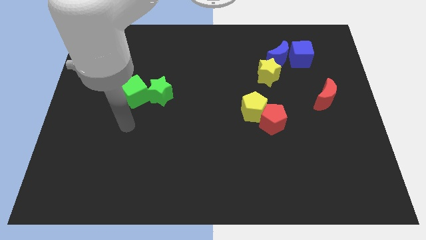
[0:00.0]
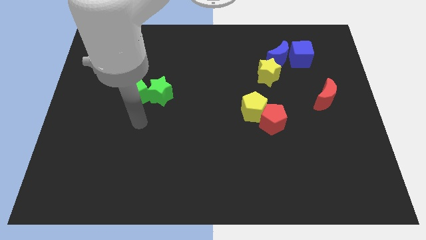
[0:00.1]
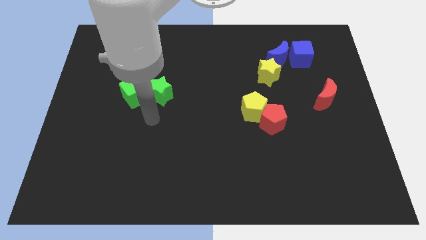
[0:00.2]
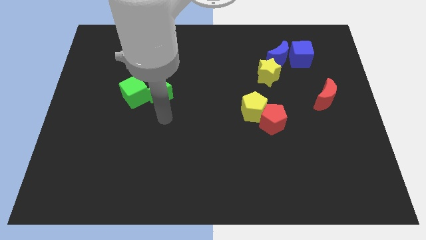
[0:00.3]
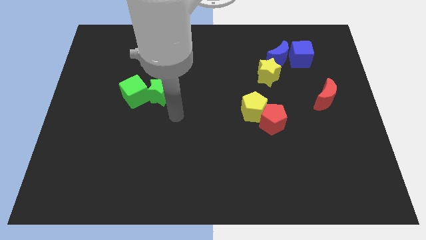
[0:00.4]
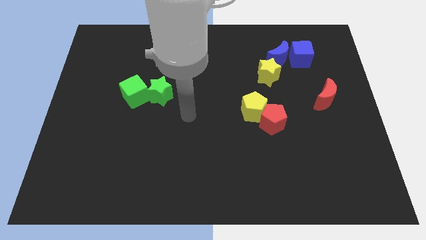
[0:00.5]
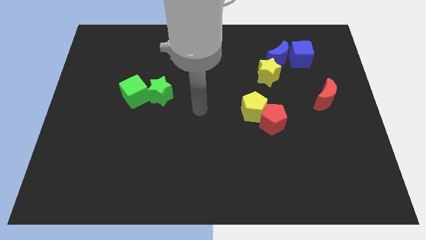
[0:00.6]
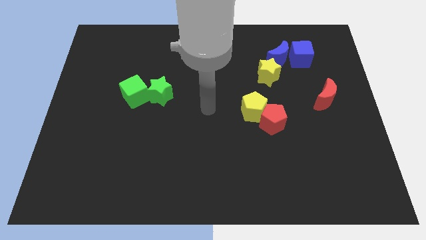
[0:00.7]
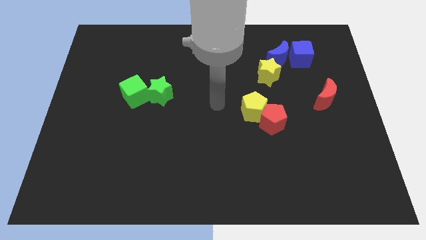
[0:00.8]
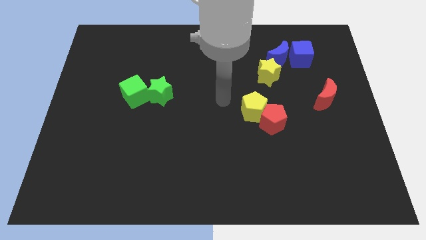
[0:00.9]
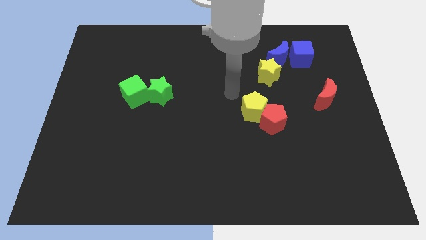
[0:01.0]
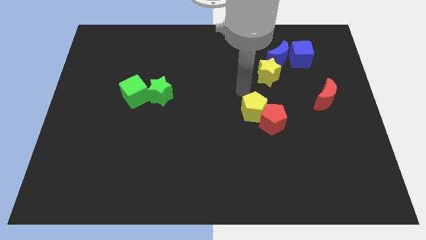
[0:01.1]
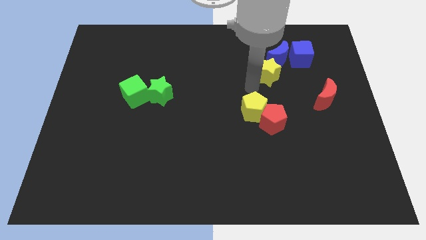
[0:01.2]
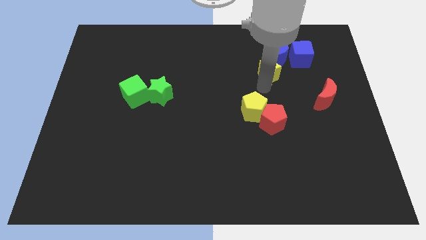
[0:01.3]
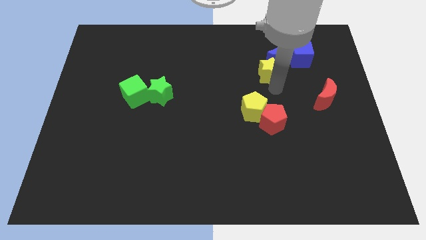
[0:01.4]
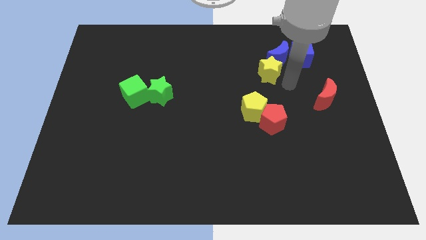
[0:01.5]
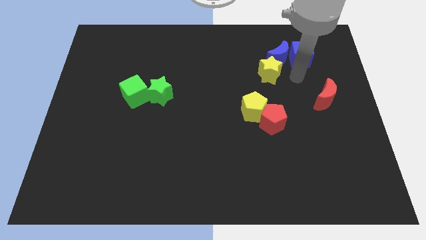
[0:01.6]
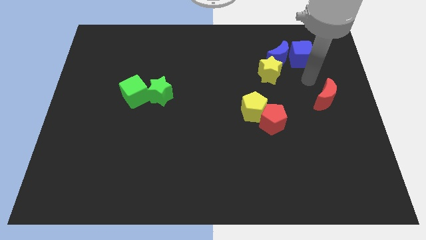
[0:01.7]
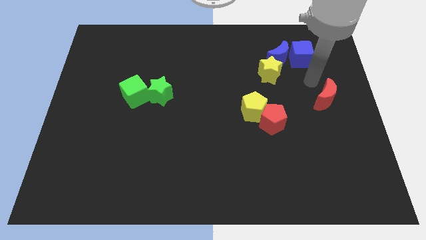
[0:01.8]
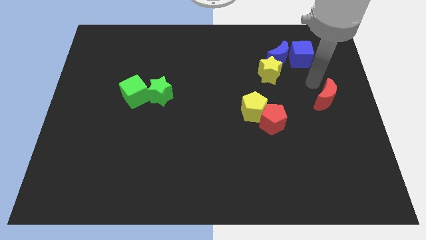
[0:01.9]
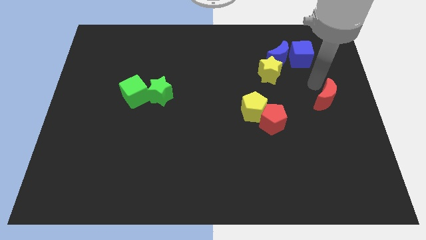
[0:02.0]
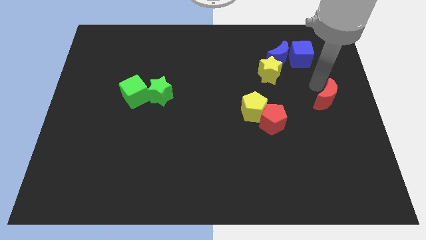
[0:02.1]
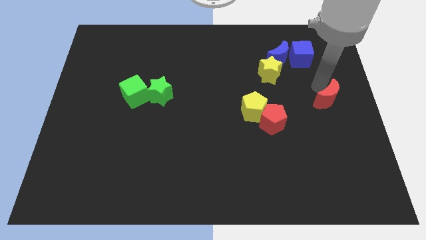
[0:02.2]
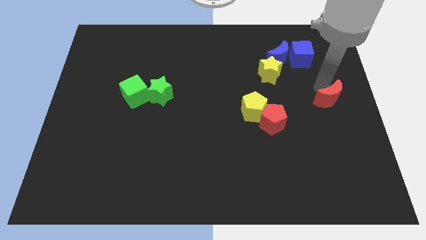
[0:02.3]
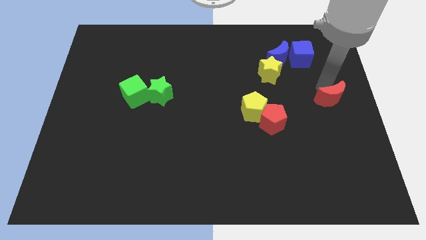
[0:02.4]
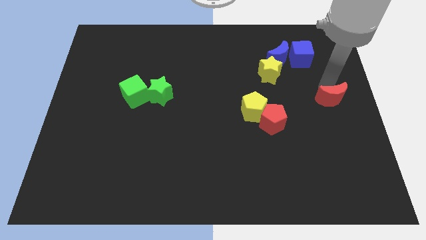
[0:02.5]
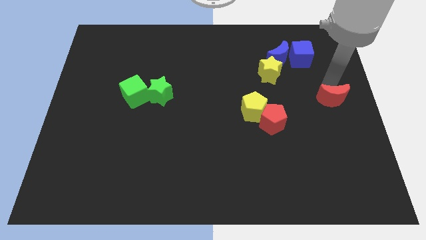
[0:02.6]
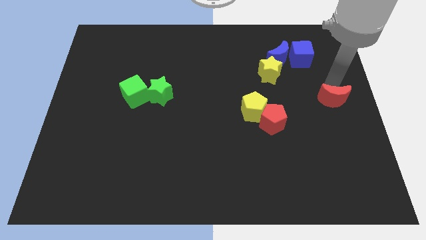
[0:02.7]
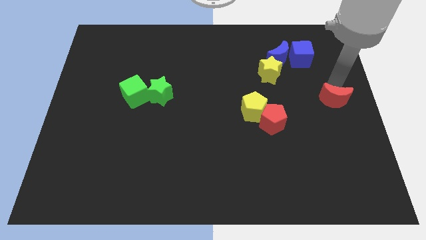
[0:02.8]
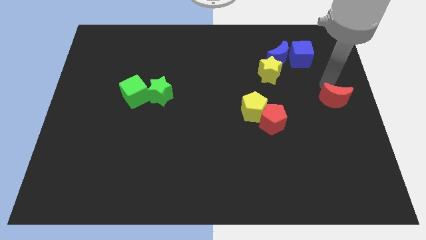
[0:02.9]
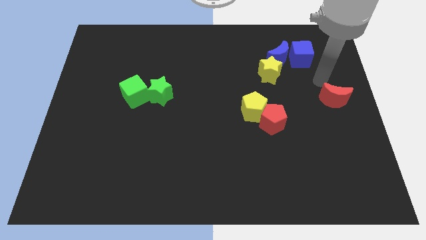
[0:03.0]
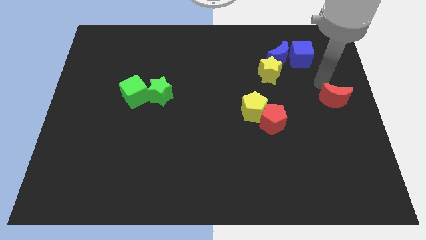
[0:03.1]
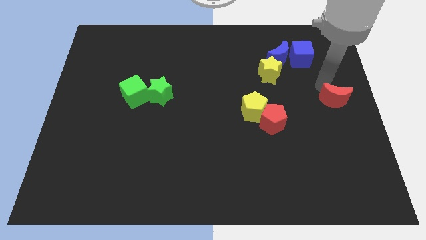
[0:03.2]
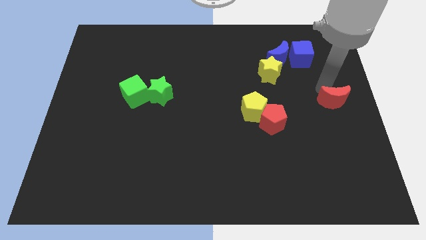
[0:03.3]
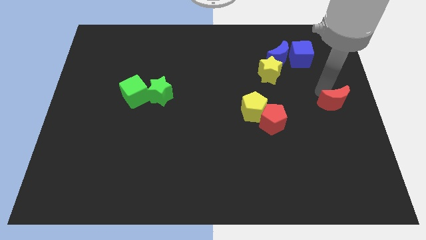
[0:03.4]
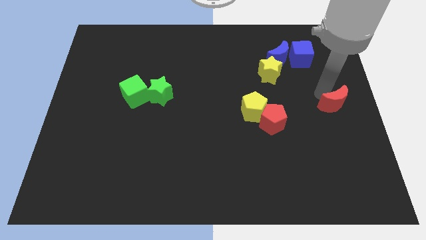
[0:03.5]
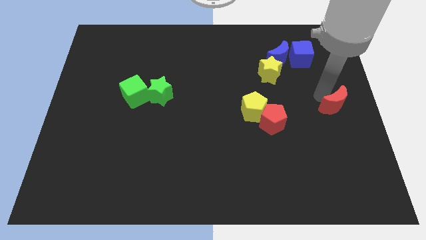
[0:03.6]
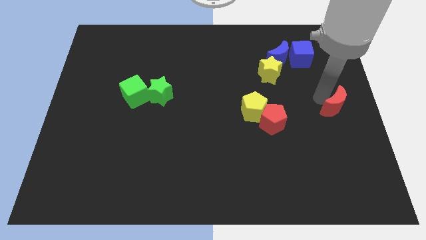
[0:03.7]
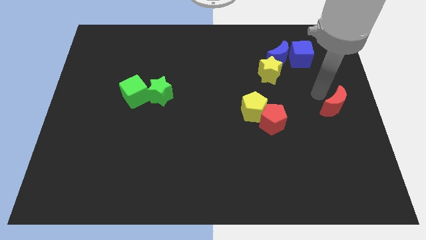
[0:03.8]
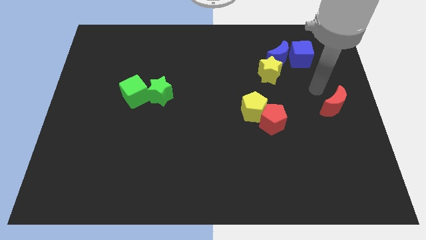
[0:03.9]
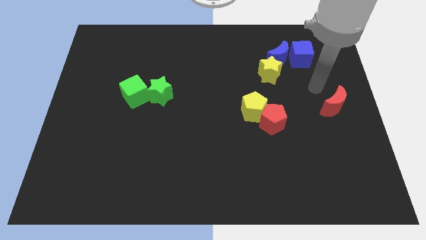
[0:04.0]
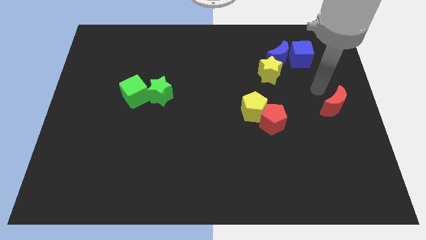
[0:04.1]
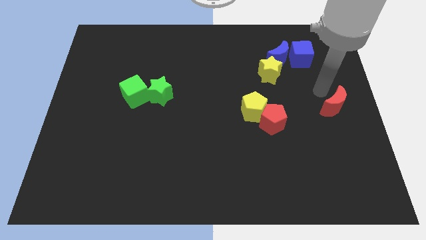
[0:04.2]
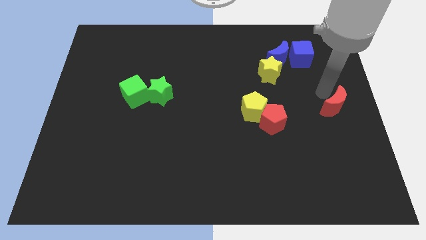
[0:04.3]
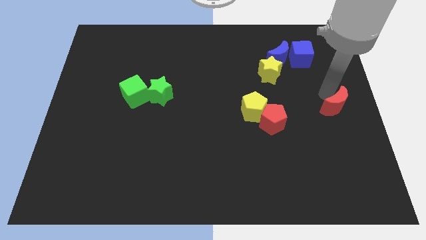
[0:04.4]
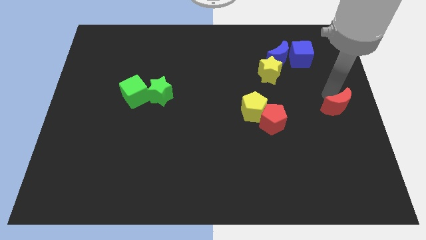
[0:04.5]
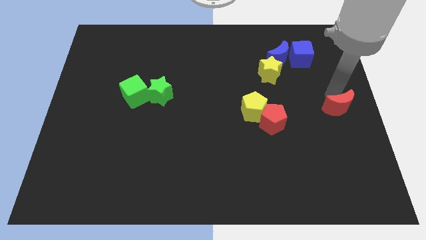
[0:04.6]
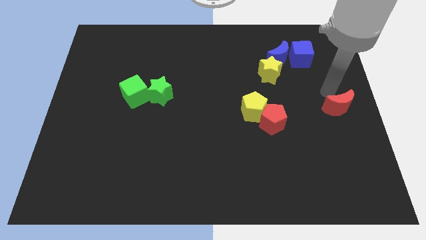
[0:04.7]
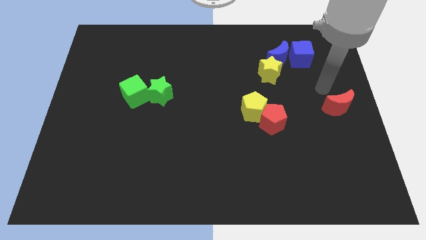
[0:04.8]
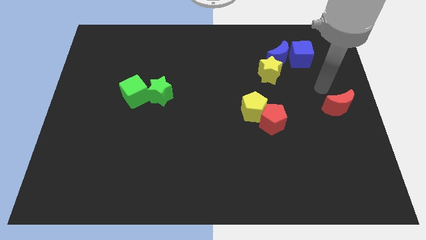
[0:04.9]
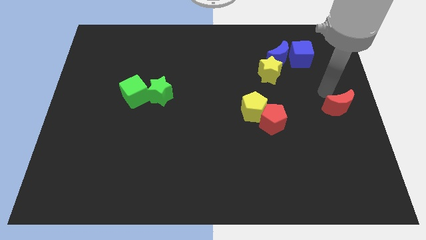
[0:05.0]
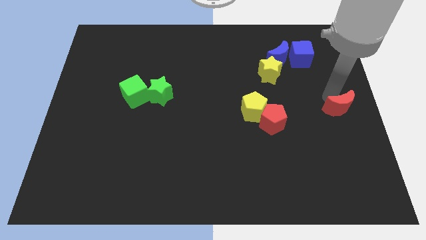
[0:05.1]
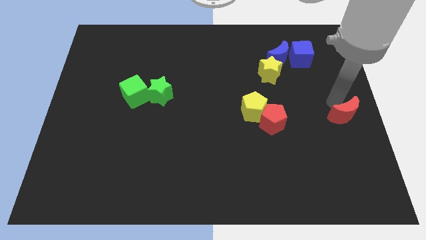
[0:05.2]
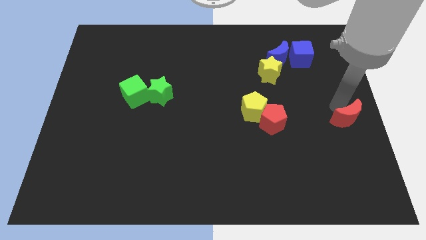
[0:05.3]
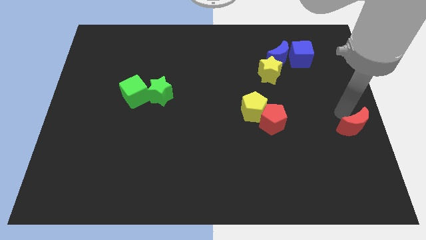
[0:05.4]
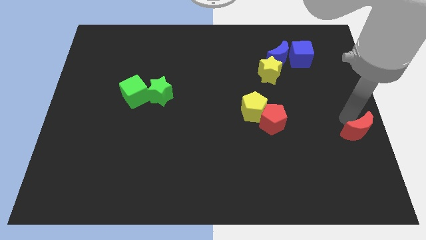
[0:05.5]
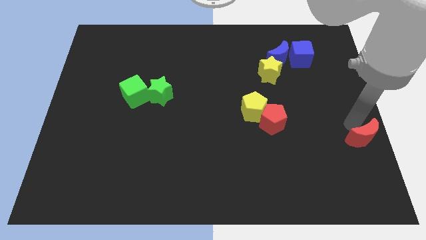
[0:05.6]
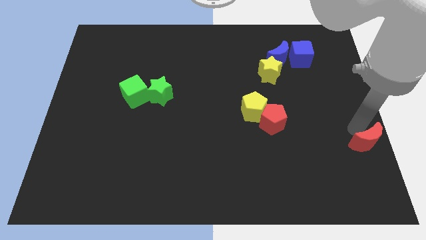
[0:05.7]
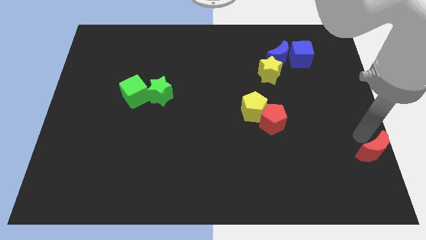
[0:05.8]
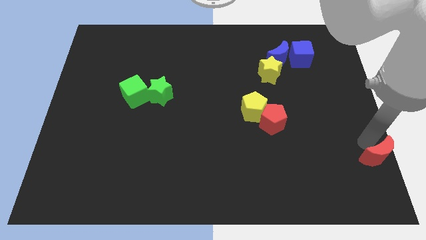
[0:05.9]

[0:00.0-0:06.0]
move the red moon to the bottom right corner

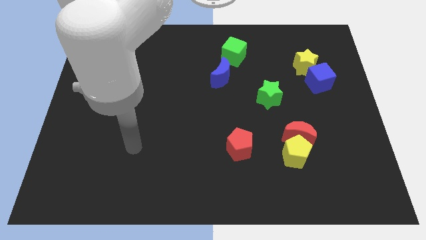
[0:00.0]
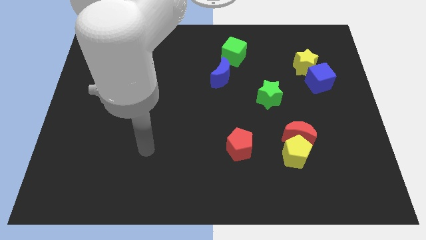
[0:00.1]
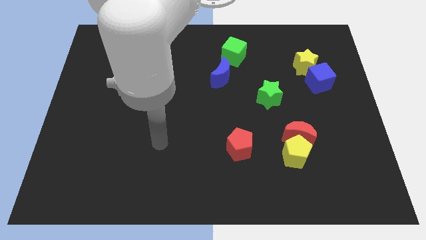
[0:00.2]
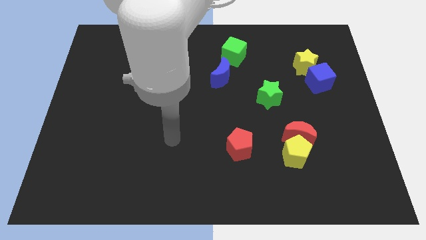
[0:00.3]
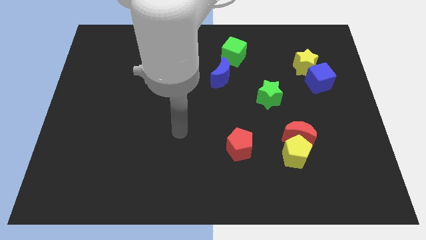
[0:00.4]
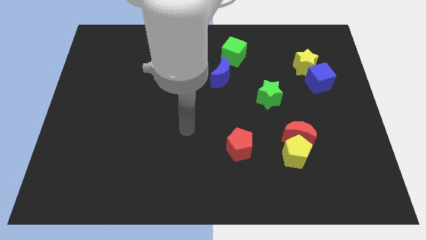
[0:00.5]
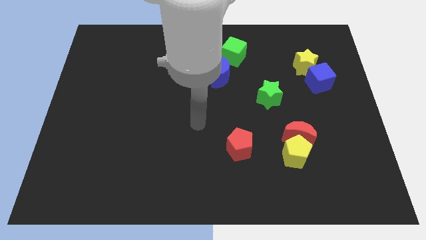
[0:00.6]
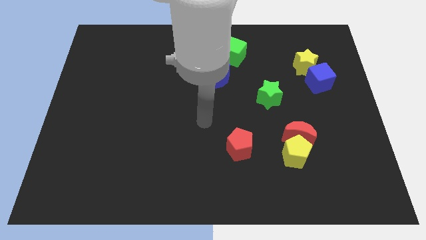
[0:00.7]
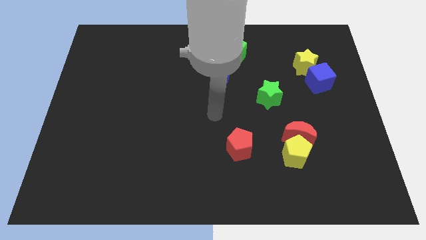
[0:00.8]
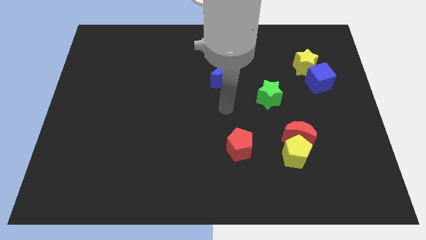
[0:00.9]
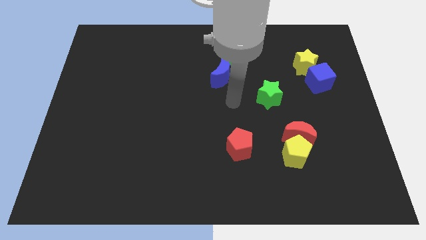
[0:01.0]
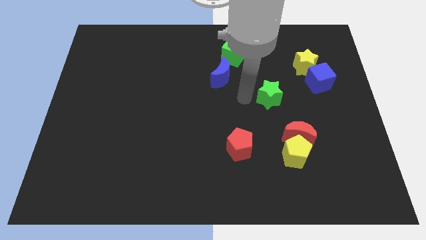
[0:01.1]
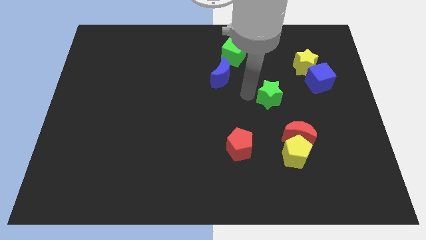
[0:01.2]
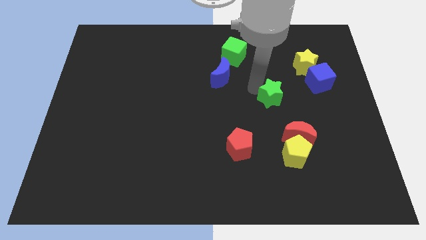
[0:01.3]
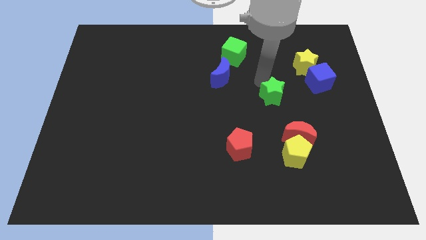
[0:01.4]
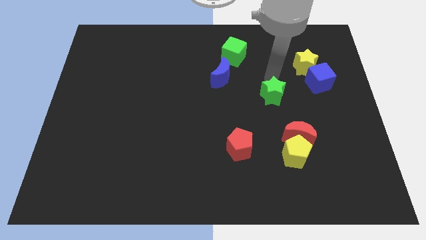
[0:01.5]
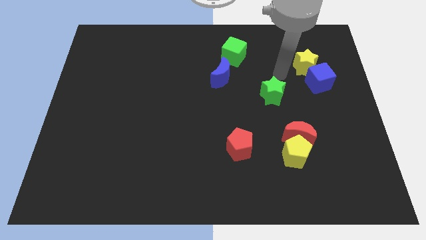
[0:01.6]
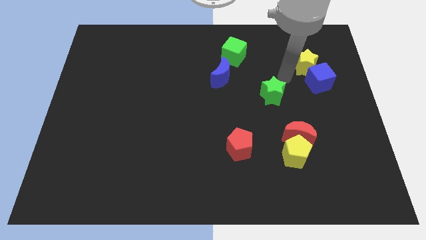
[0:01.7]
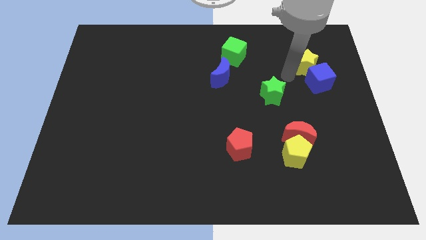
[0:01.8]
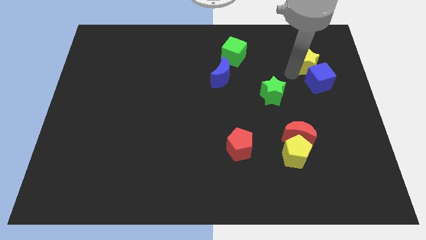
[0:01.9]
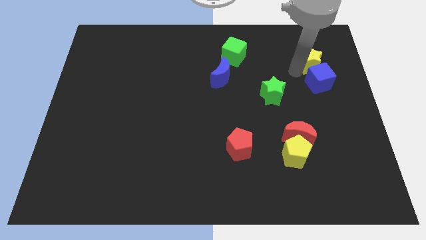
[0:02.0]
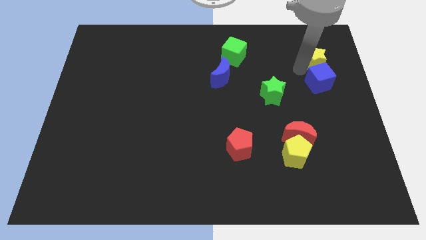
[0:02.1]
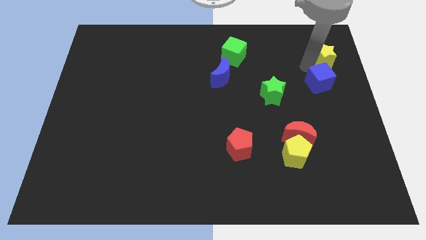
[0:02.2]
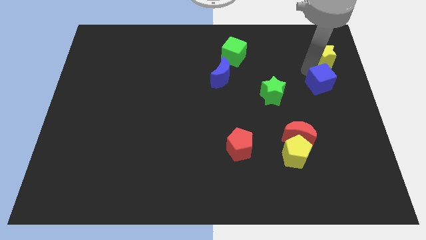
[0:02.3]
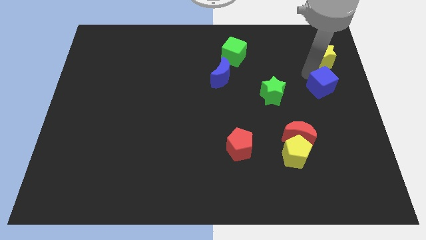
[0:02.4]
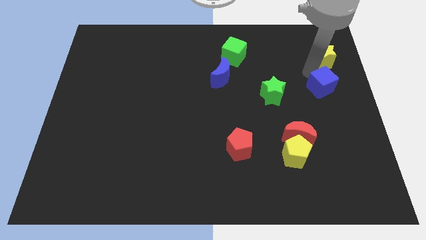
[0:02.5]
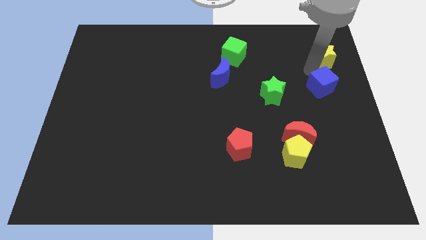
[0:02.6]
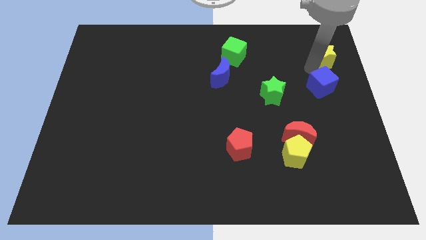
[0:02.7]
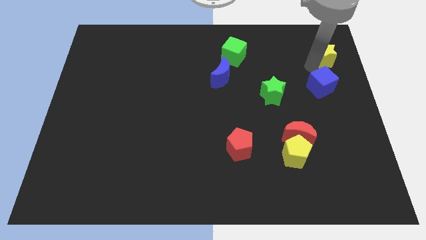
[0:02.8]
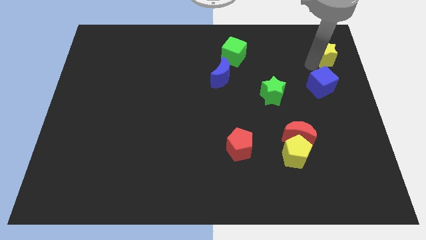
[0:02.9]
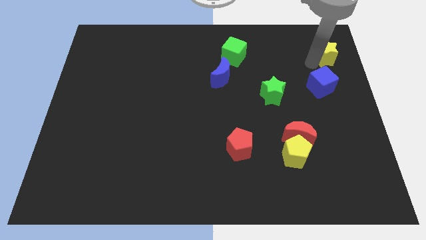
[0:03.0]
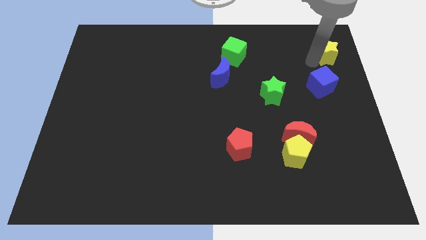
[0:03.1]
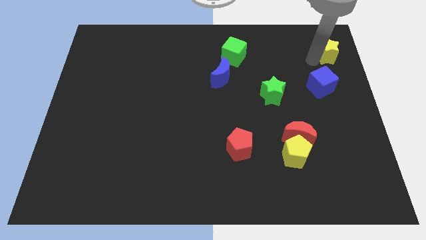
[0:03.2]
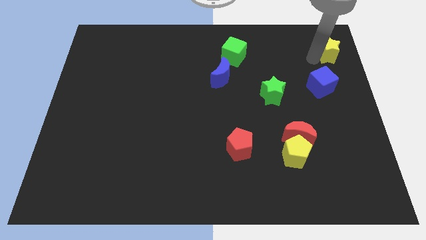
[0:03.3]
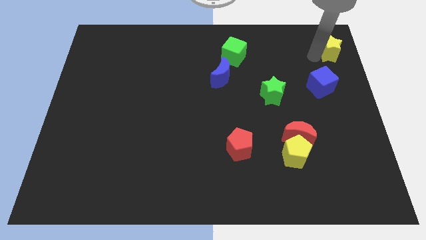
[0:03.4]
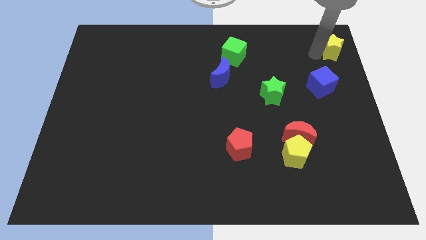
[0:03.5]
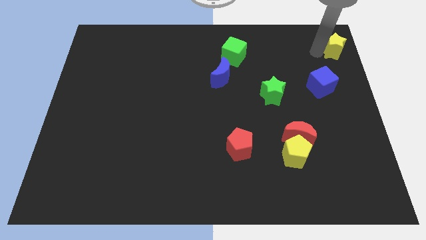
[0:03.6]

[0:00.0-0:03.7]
slide the yellow star to the top right
